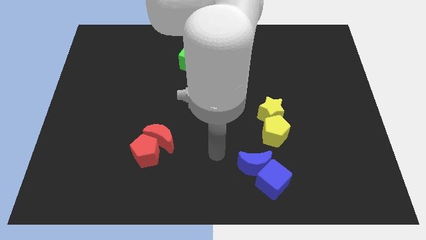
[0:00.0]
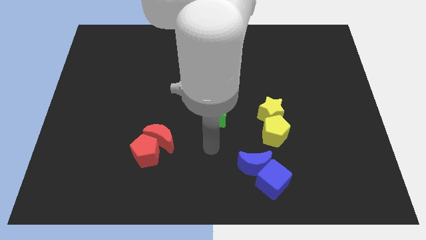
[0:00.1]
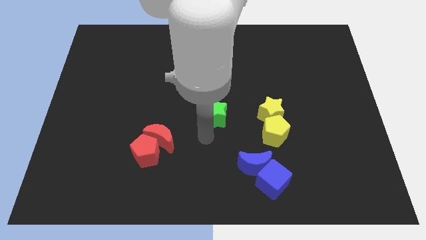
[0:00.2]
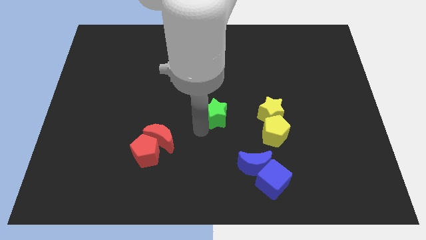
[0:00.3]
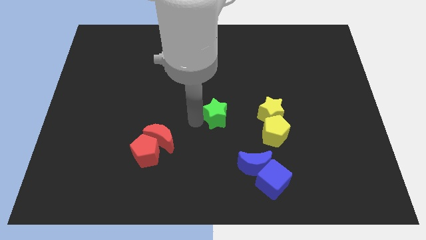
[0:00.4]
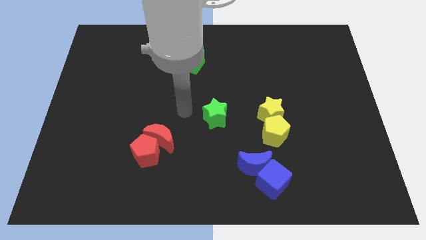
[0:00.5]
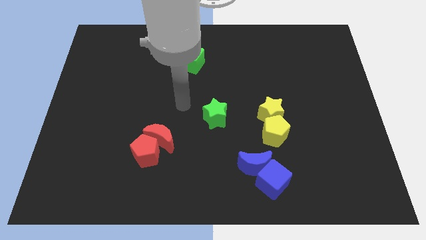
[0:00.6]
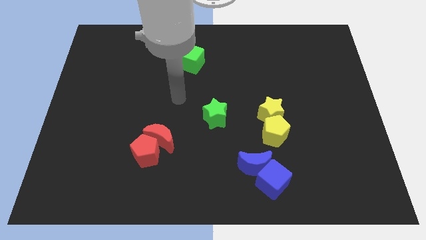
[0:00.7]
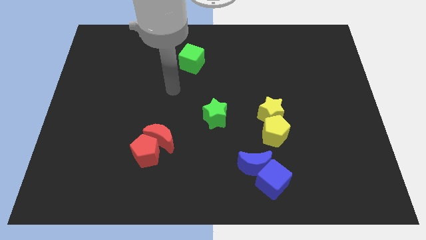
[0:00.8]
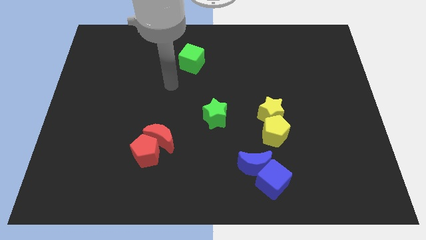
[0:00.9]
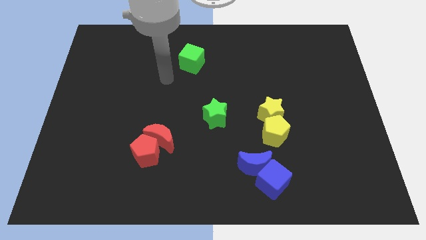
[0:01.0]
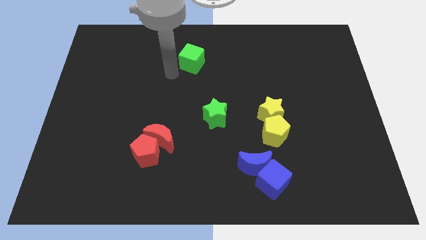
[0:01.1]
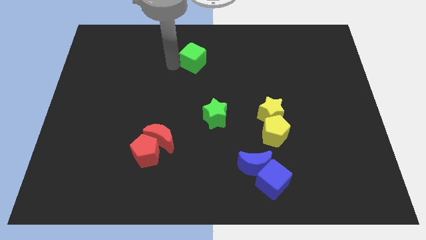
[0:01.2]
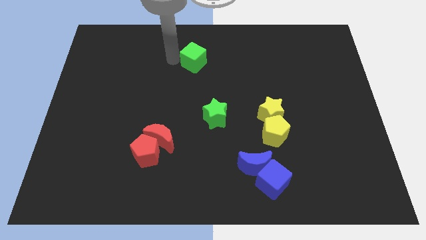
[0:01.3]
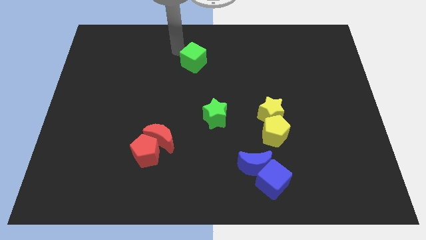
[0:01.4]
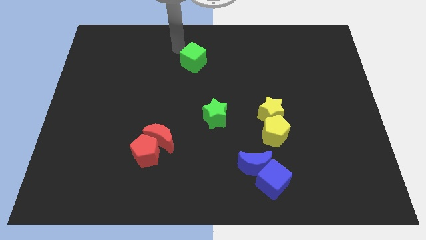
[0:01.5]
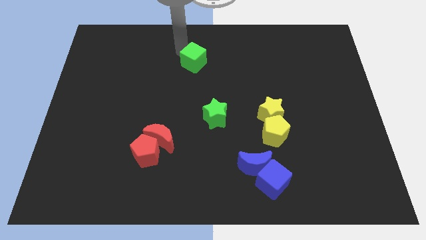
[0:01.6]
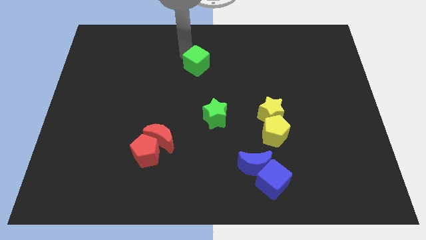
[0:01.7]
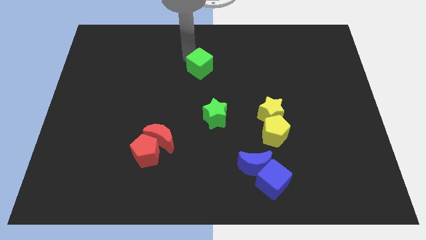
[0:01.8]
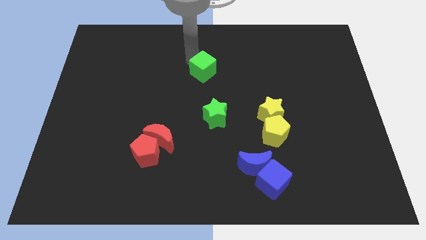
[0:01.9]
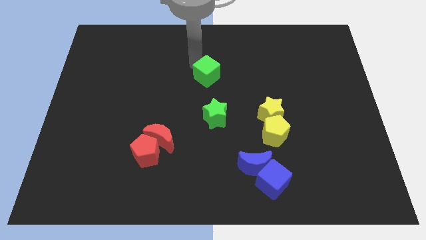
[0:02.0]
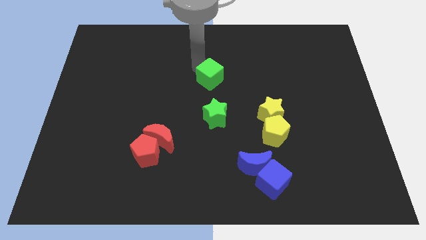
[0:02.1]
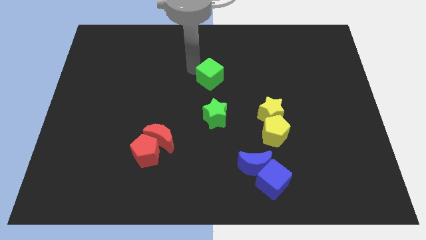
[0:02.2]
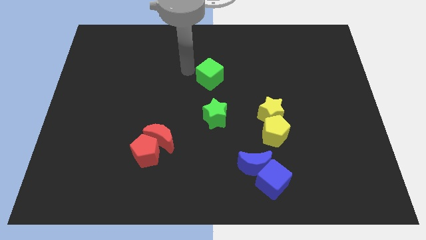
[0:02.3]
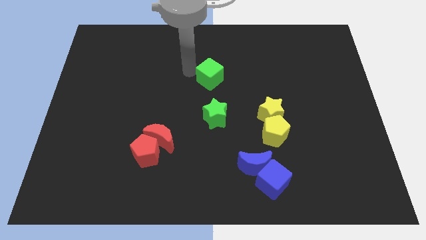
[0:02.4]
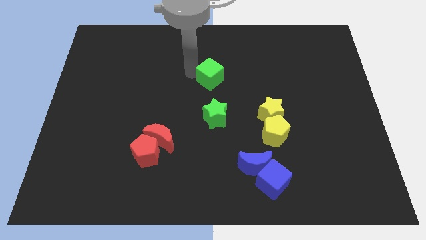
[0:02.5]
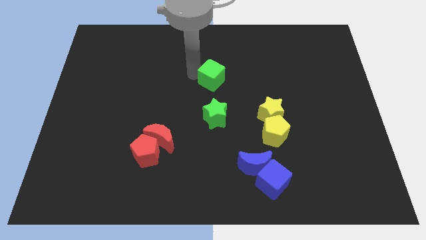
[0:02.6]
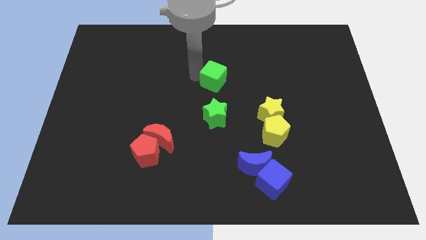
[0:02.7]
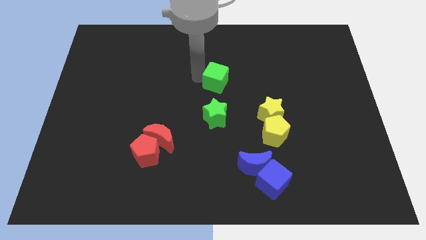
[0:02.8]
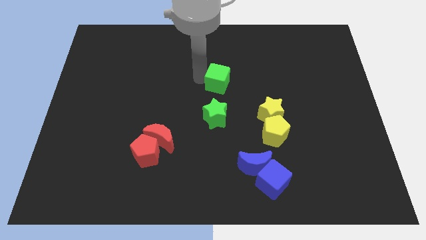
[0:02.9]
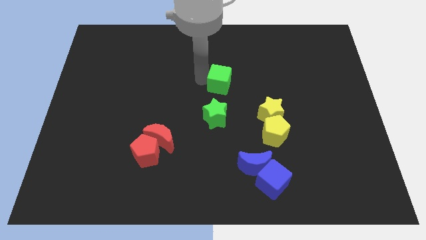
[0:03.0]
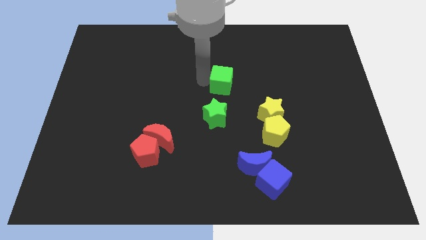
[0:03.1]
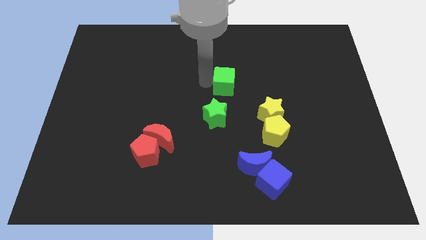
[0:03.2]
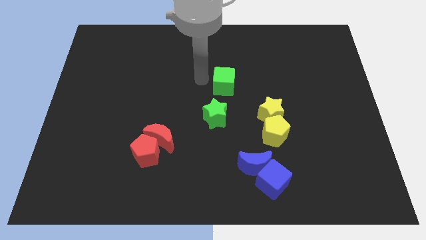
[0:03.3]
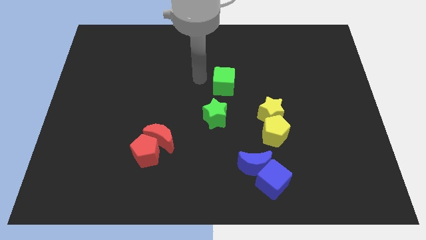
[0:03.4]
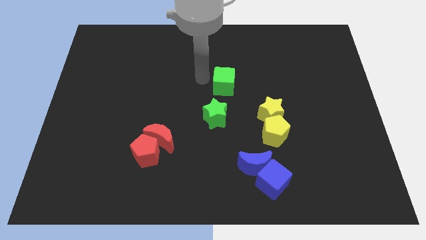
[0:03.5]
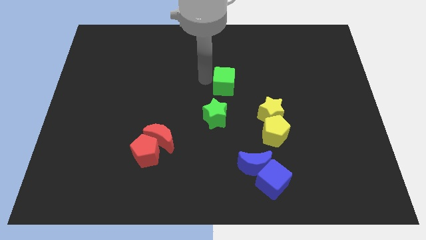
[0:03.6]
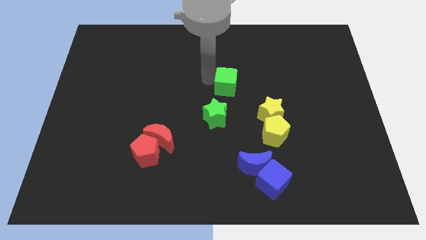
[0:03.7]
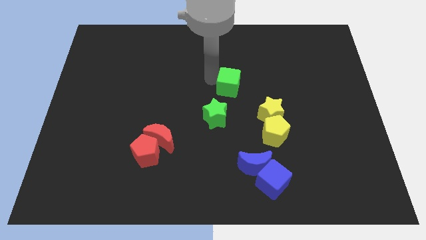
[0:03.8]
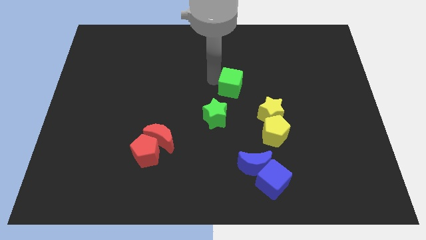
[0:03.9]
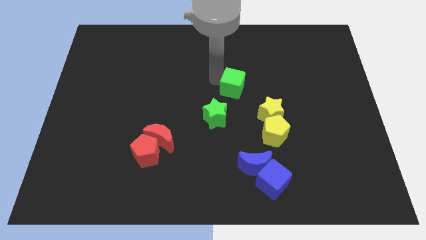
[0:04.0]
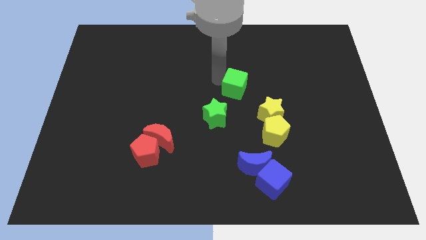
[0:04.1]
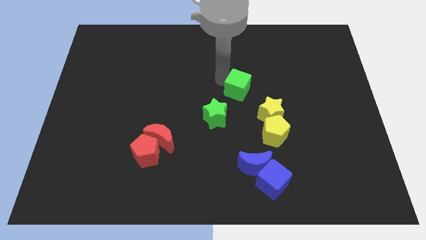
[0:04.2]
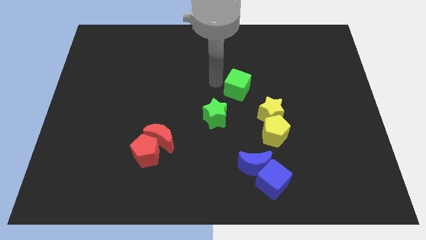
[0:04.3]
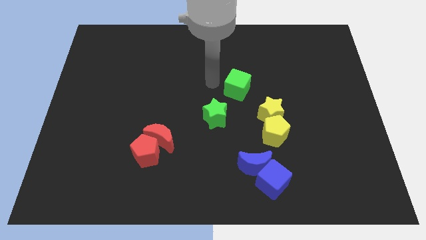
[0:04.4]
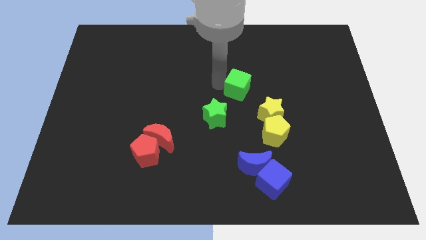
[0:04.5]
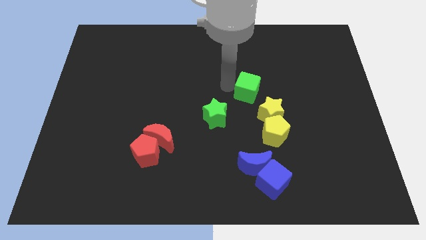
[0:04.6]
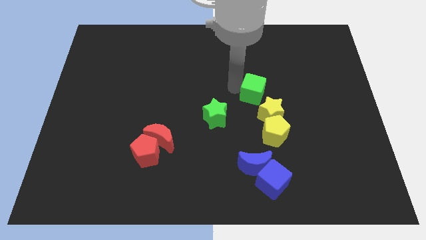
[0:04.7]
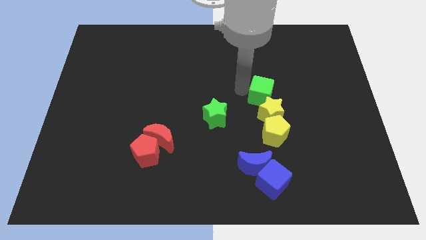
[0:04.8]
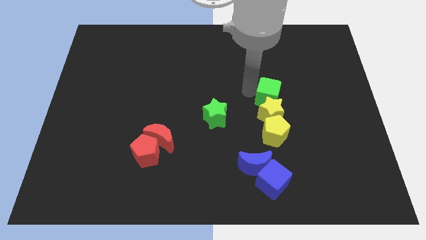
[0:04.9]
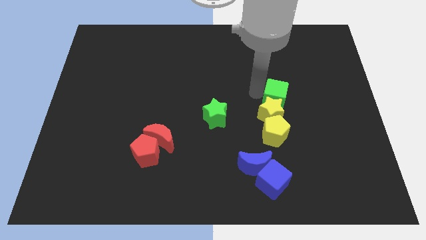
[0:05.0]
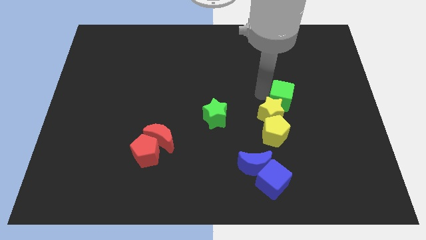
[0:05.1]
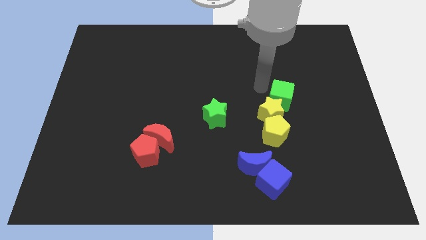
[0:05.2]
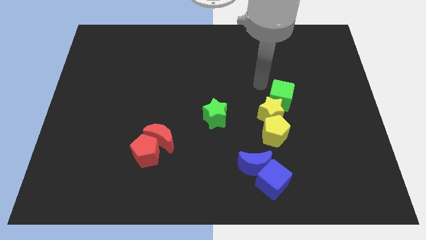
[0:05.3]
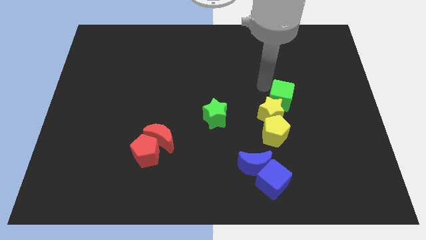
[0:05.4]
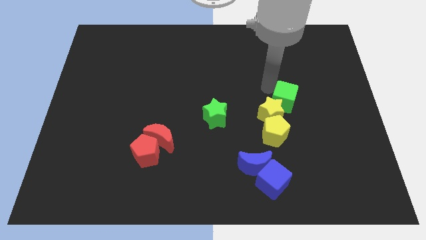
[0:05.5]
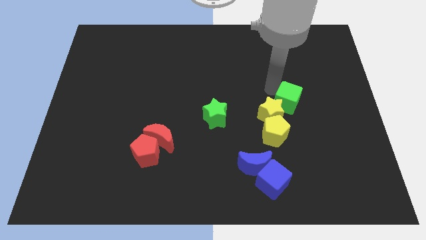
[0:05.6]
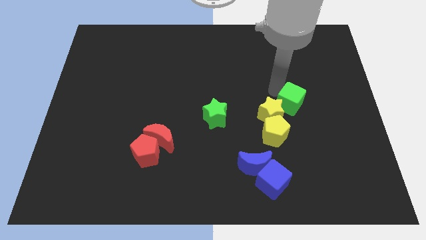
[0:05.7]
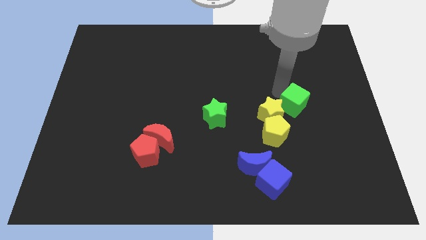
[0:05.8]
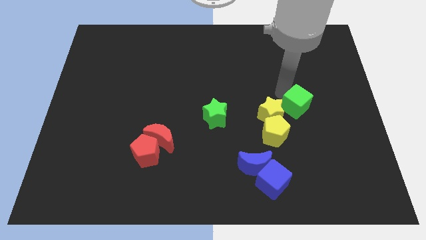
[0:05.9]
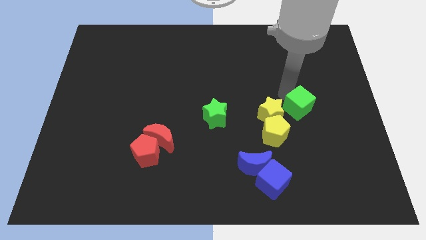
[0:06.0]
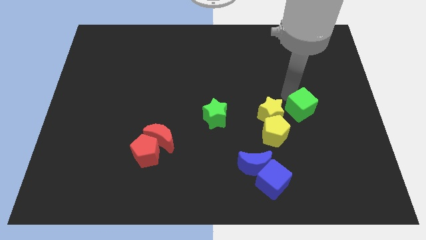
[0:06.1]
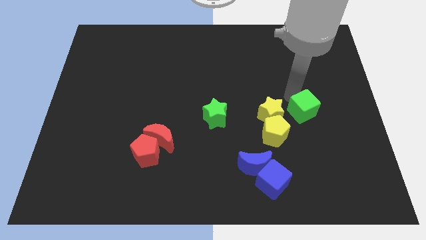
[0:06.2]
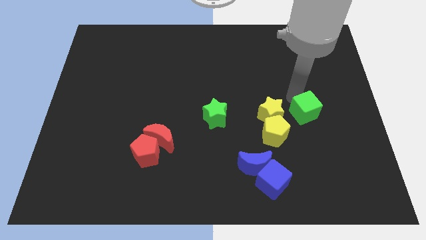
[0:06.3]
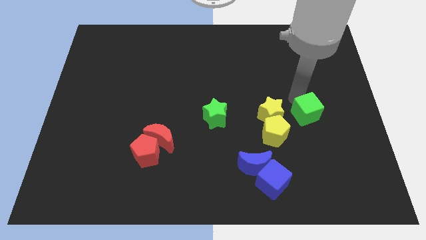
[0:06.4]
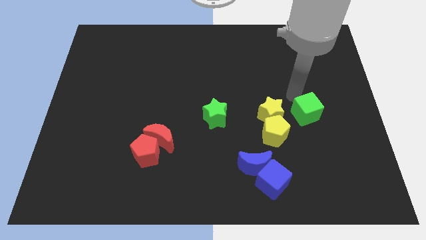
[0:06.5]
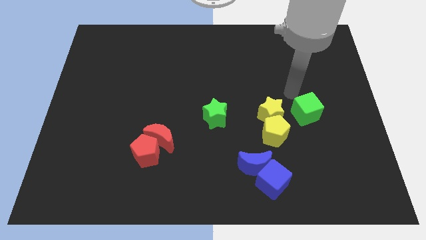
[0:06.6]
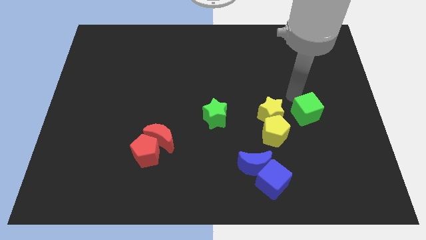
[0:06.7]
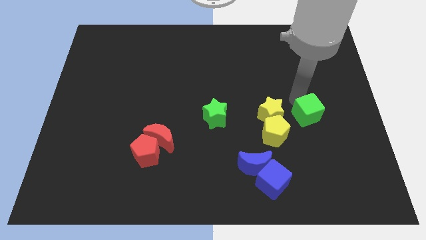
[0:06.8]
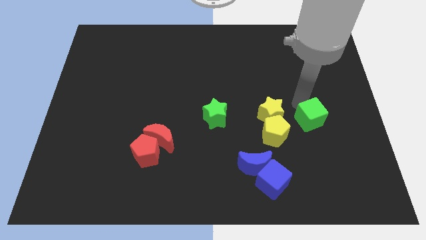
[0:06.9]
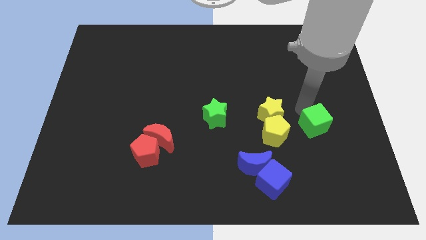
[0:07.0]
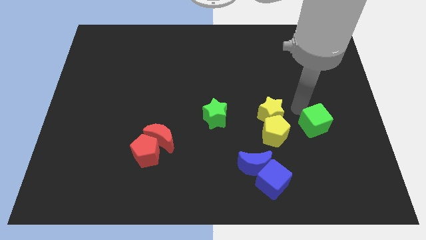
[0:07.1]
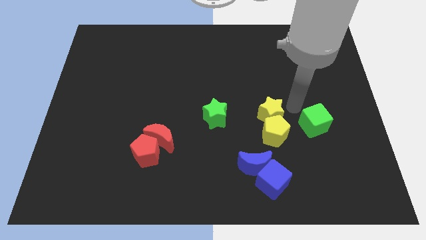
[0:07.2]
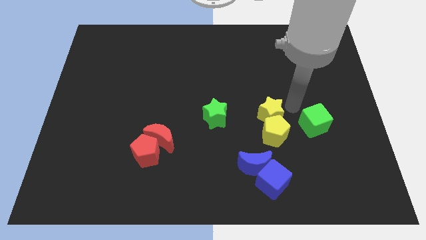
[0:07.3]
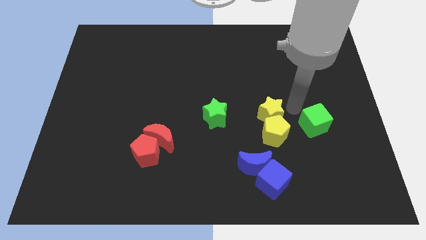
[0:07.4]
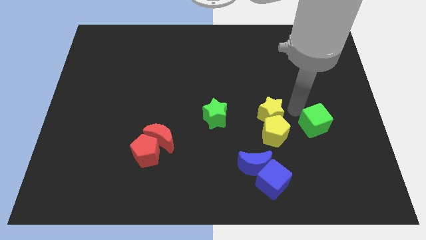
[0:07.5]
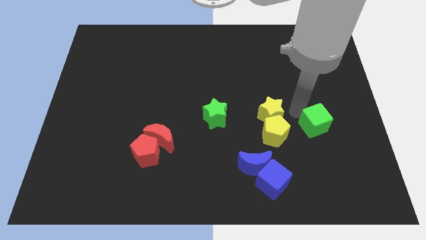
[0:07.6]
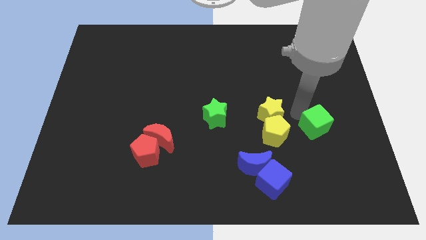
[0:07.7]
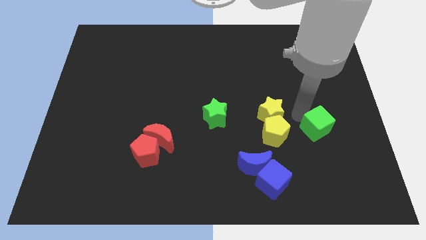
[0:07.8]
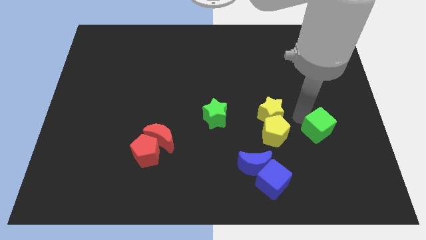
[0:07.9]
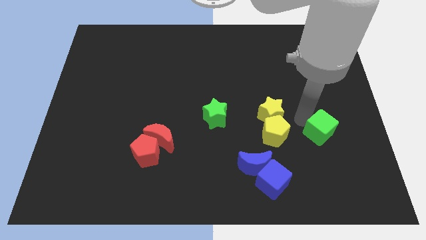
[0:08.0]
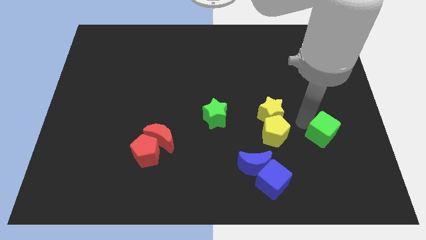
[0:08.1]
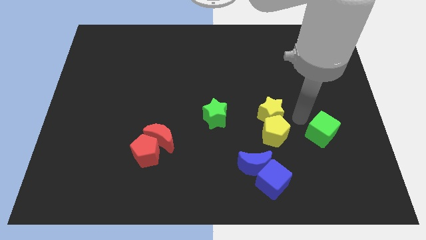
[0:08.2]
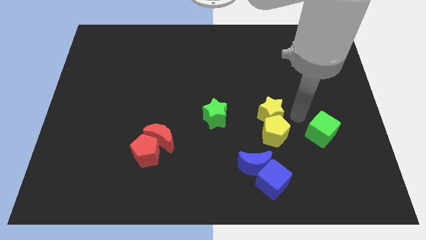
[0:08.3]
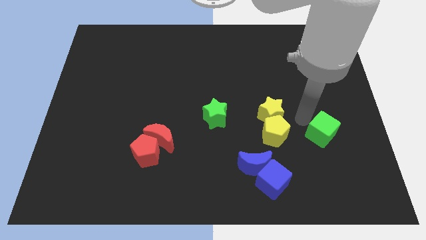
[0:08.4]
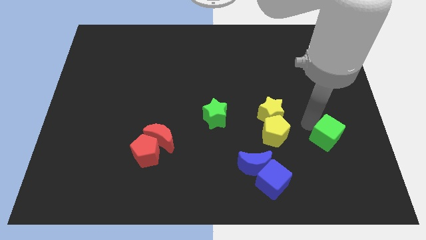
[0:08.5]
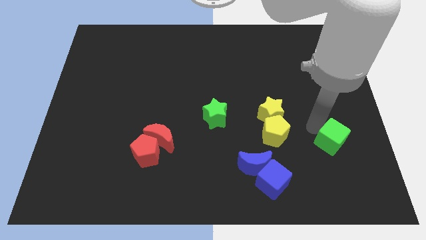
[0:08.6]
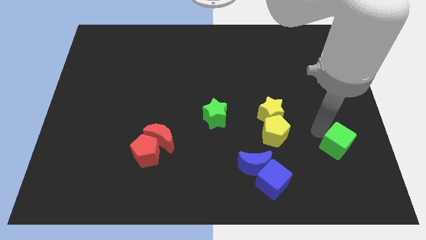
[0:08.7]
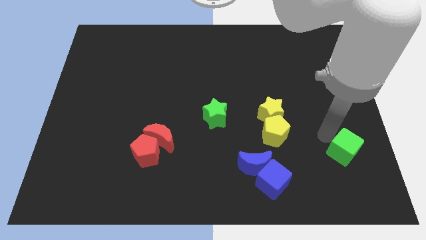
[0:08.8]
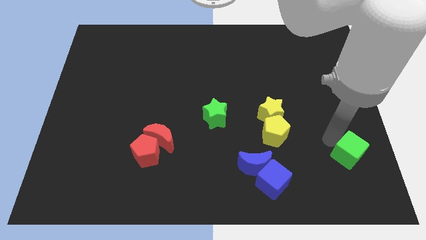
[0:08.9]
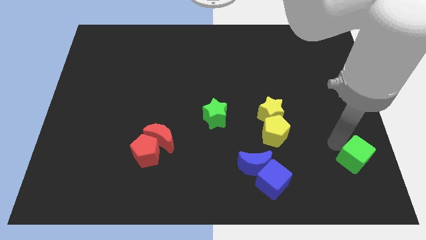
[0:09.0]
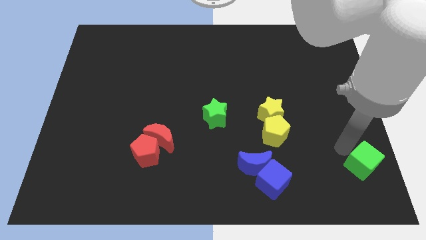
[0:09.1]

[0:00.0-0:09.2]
put the green cube to the bottom right corner
